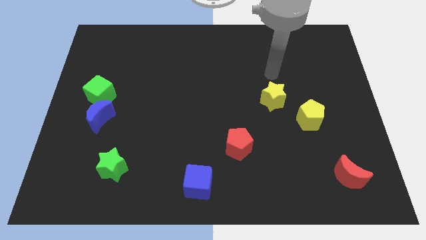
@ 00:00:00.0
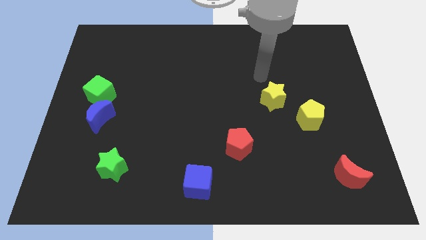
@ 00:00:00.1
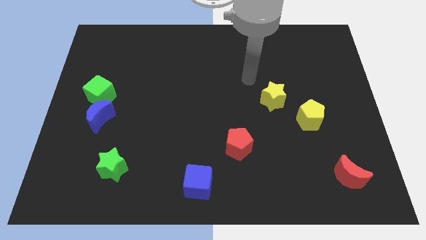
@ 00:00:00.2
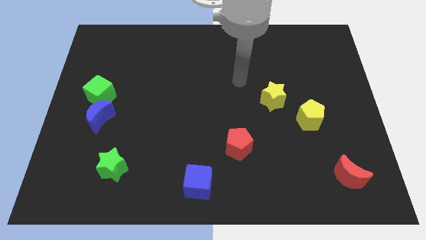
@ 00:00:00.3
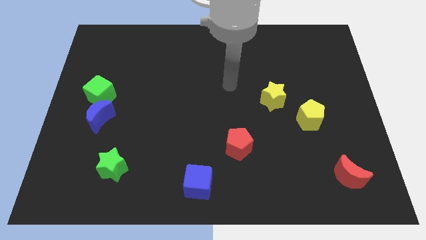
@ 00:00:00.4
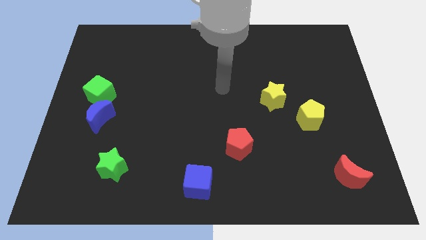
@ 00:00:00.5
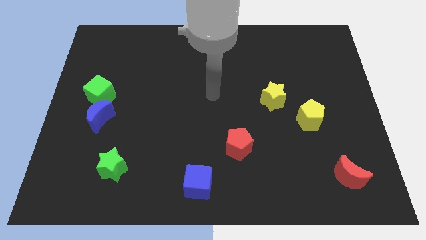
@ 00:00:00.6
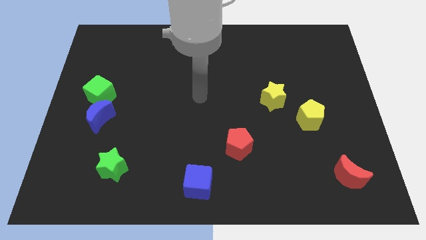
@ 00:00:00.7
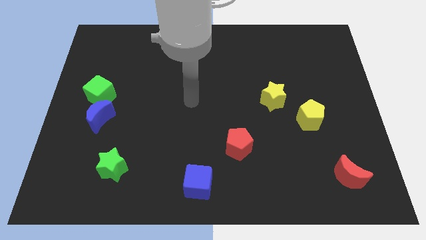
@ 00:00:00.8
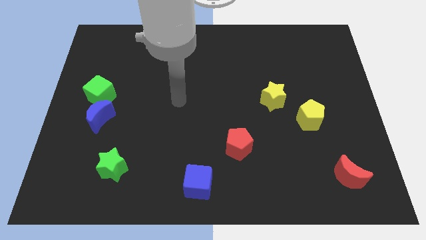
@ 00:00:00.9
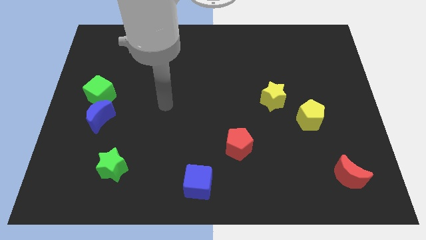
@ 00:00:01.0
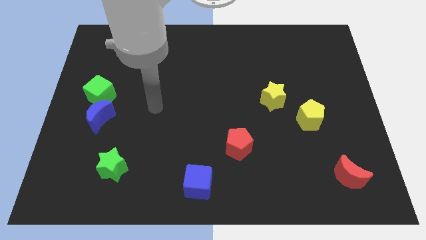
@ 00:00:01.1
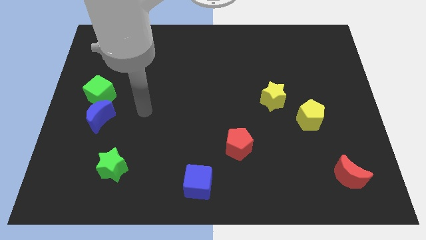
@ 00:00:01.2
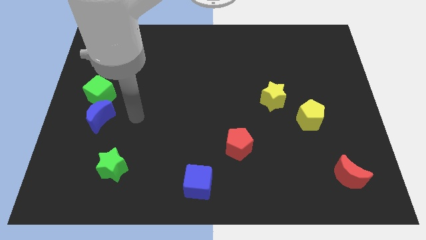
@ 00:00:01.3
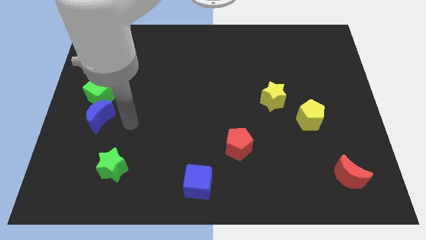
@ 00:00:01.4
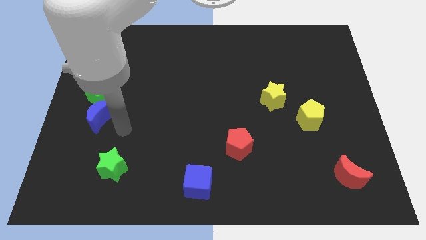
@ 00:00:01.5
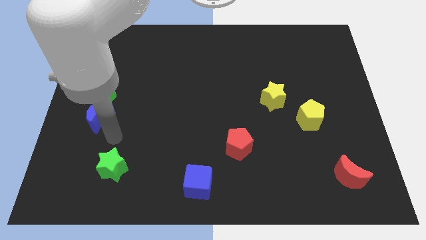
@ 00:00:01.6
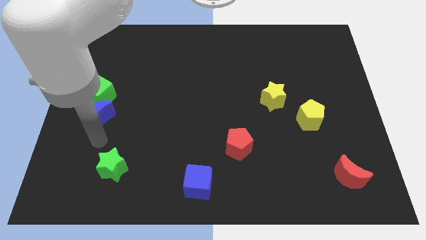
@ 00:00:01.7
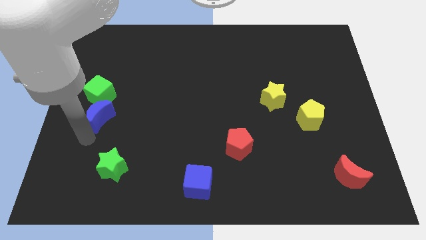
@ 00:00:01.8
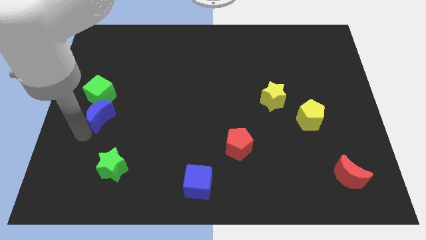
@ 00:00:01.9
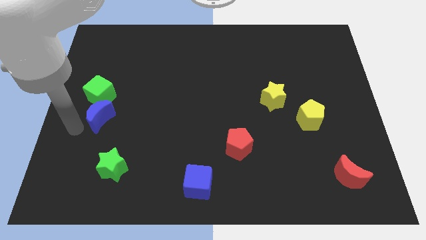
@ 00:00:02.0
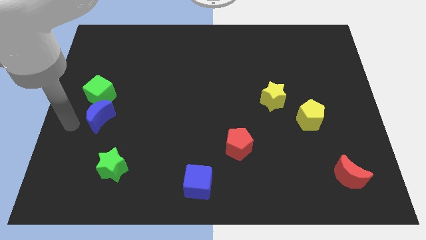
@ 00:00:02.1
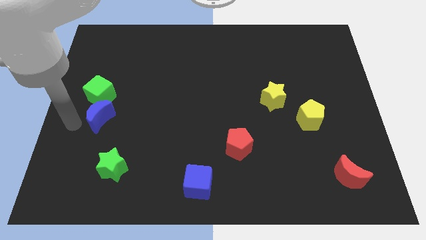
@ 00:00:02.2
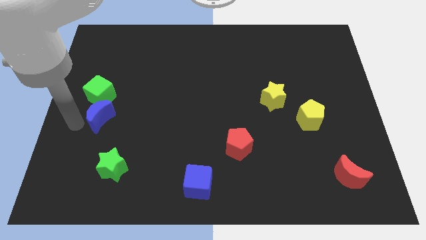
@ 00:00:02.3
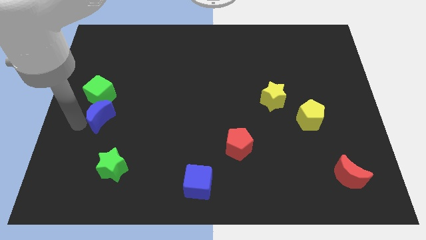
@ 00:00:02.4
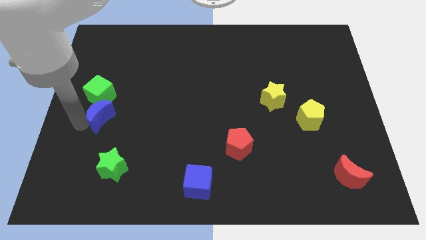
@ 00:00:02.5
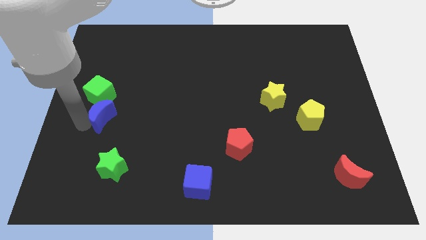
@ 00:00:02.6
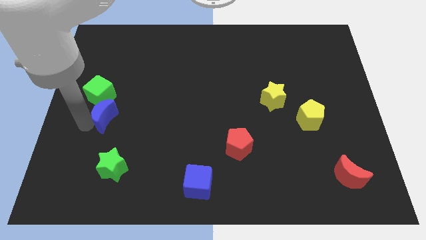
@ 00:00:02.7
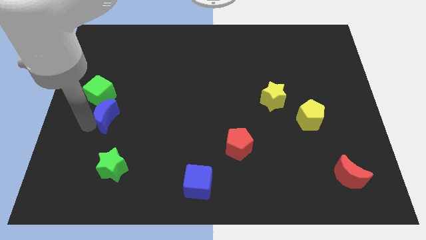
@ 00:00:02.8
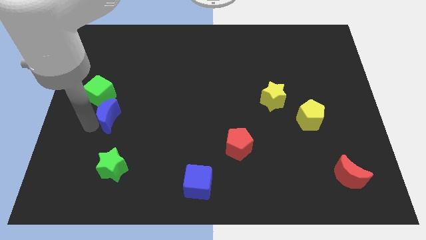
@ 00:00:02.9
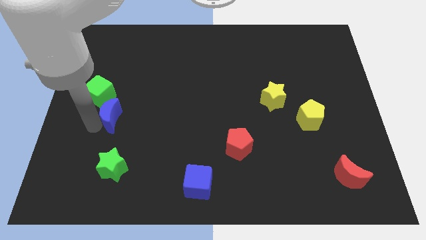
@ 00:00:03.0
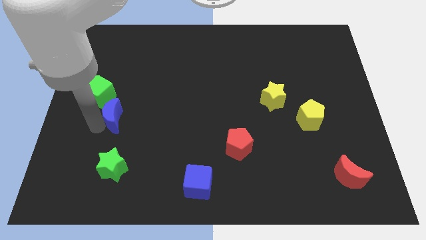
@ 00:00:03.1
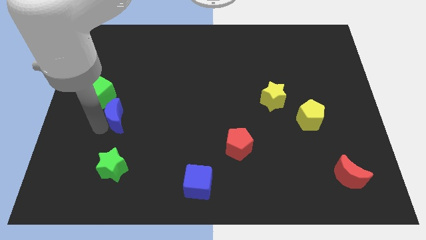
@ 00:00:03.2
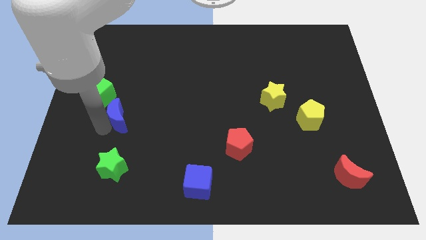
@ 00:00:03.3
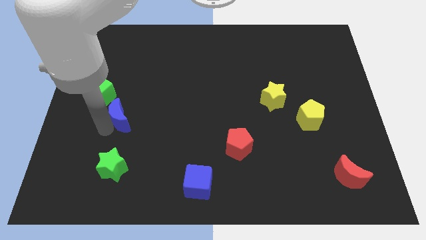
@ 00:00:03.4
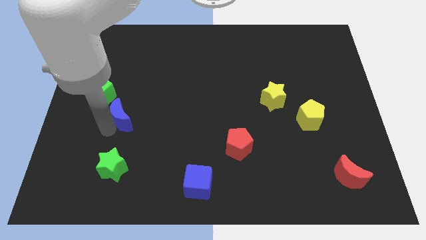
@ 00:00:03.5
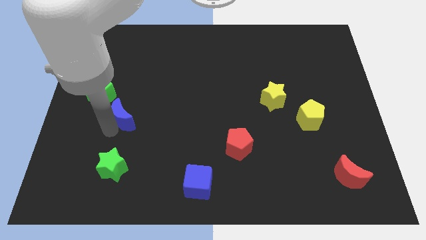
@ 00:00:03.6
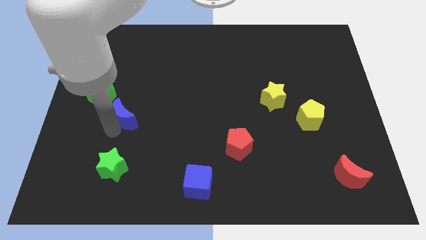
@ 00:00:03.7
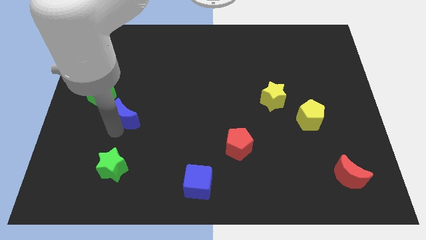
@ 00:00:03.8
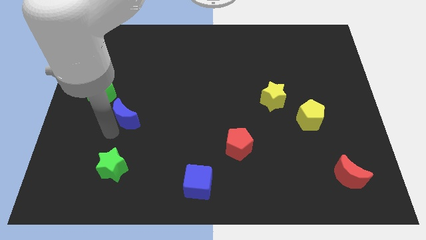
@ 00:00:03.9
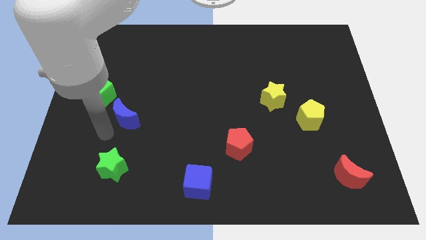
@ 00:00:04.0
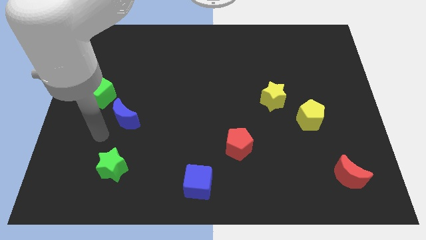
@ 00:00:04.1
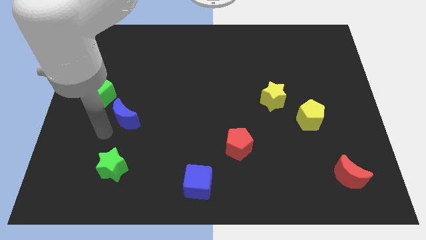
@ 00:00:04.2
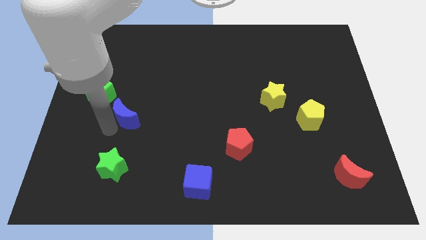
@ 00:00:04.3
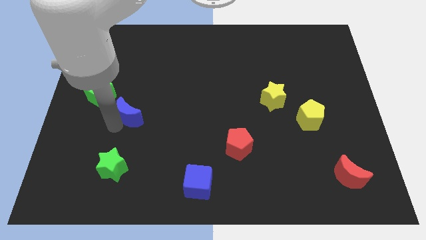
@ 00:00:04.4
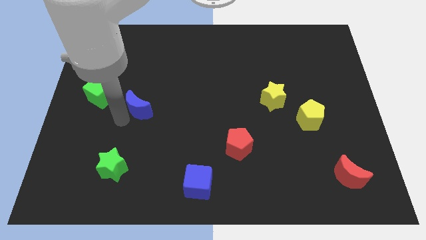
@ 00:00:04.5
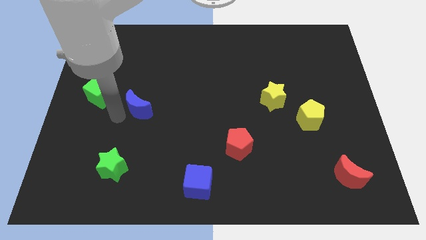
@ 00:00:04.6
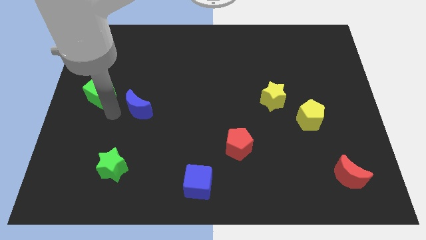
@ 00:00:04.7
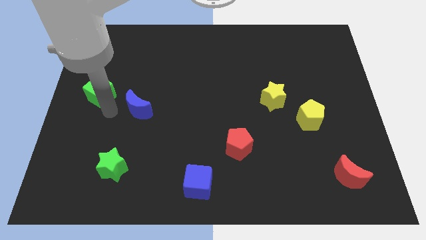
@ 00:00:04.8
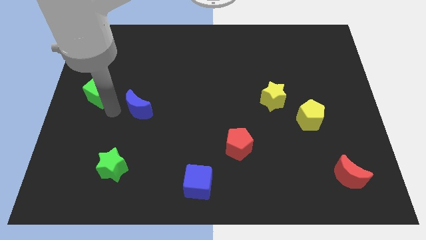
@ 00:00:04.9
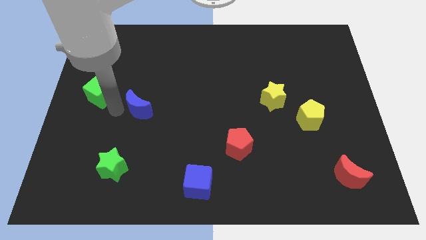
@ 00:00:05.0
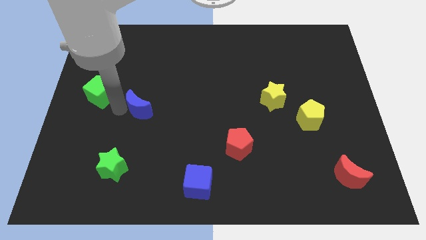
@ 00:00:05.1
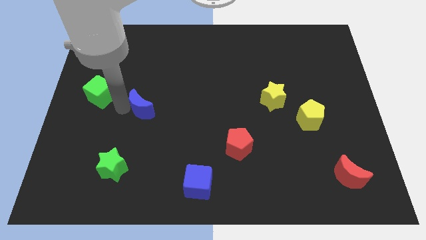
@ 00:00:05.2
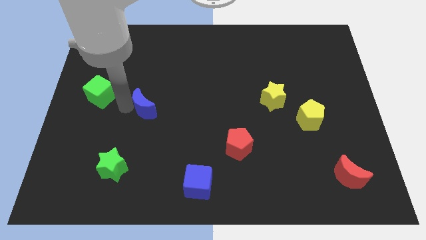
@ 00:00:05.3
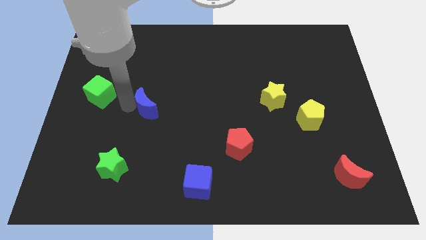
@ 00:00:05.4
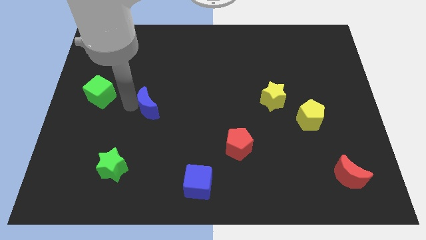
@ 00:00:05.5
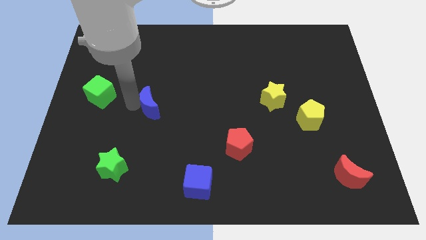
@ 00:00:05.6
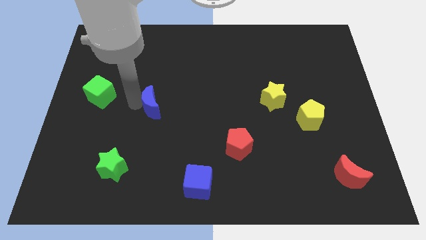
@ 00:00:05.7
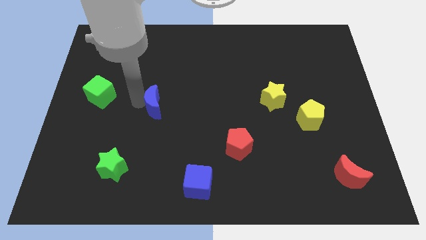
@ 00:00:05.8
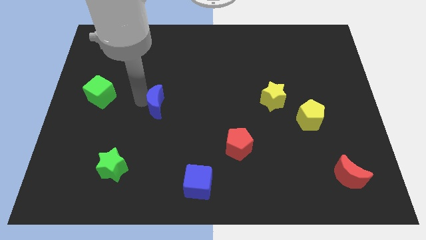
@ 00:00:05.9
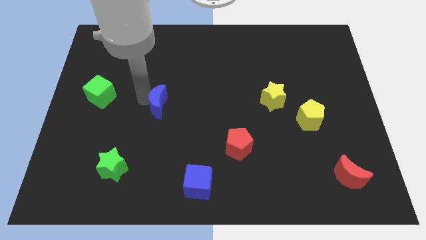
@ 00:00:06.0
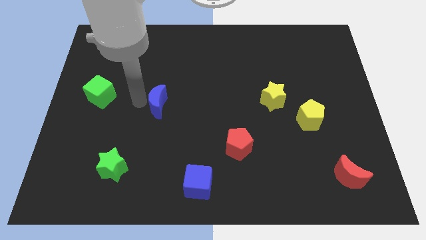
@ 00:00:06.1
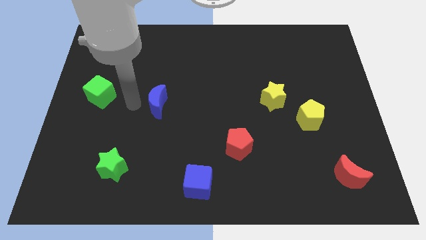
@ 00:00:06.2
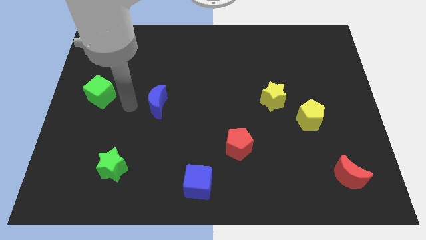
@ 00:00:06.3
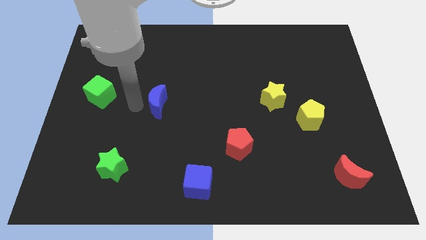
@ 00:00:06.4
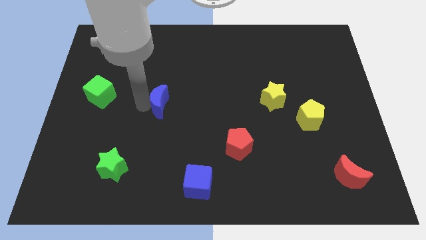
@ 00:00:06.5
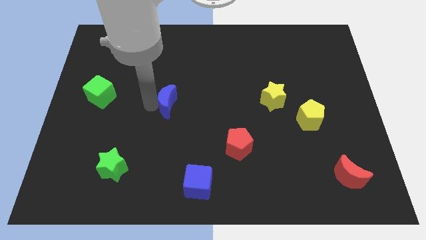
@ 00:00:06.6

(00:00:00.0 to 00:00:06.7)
put the blue moon to the middle
